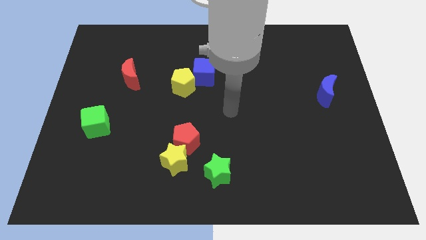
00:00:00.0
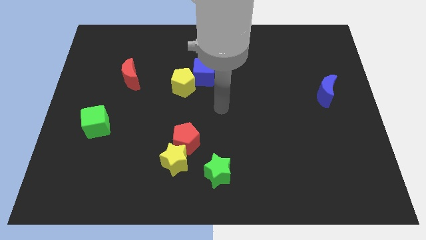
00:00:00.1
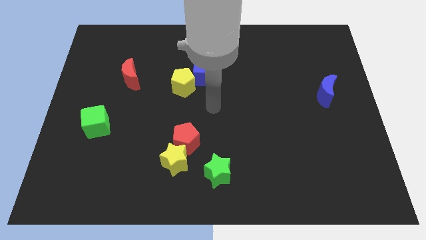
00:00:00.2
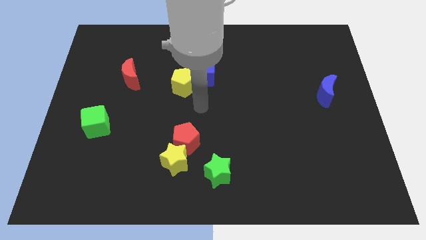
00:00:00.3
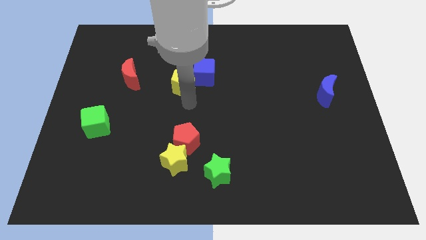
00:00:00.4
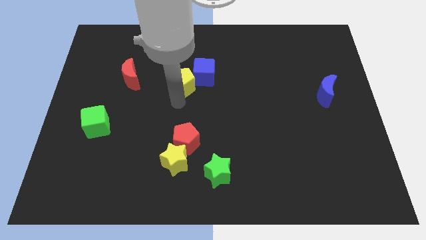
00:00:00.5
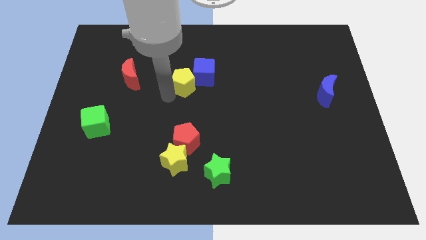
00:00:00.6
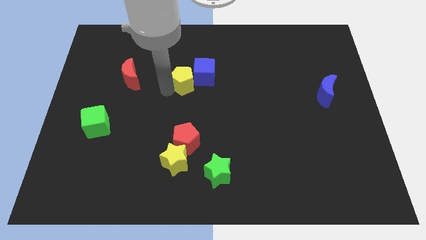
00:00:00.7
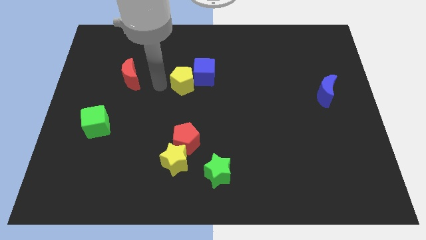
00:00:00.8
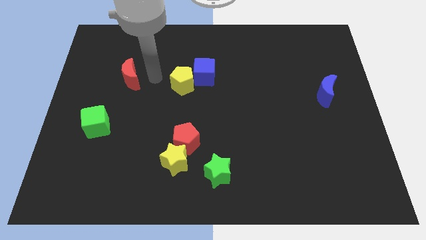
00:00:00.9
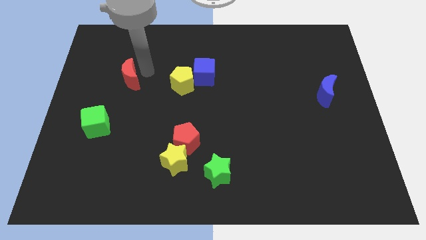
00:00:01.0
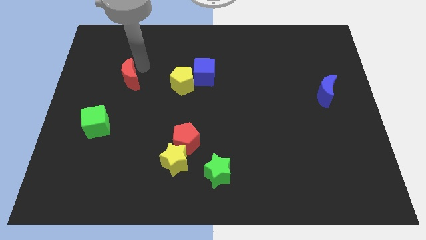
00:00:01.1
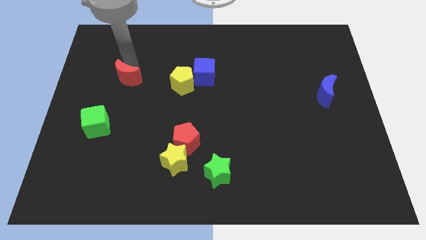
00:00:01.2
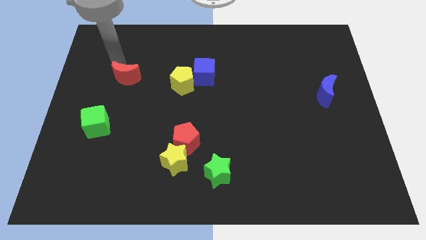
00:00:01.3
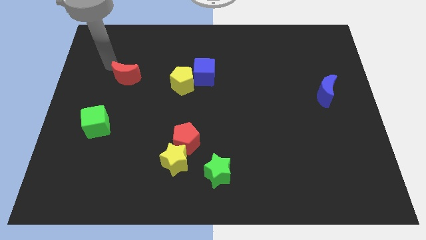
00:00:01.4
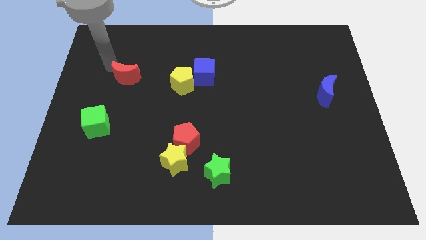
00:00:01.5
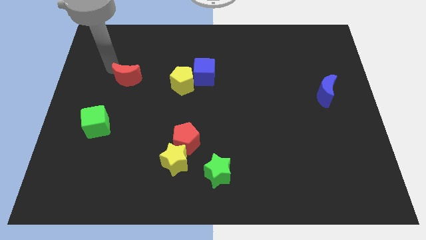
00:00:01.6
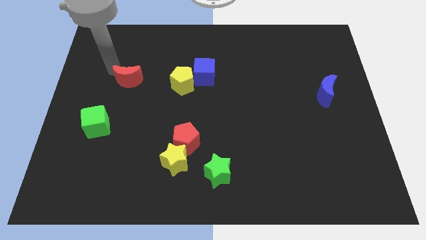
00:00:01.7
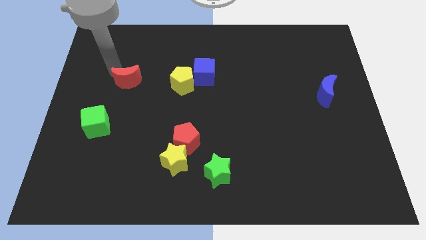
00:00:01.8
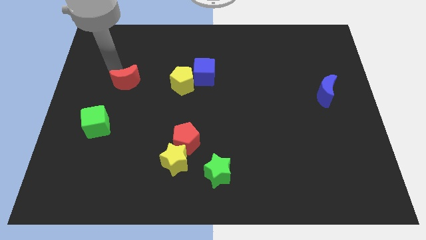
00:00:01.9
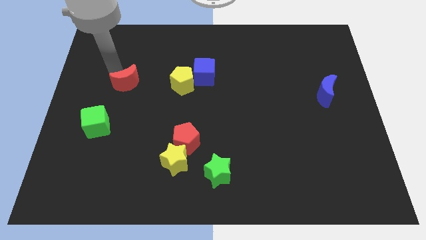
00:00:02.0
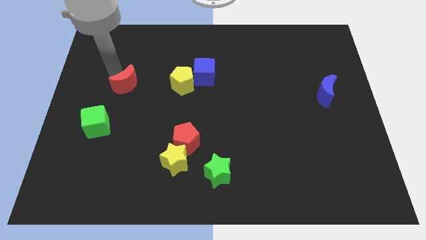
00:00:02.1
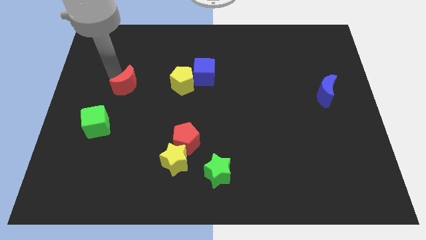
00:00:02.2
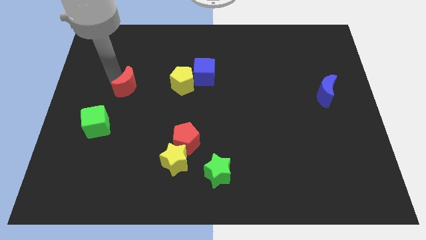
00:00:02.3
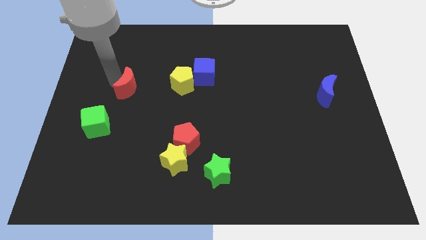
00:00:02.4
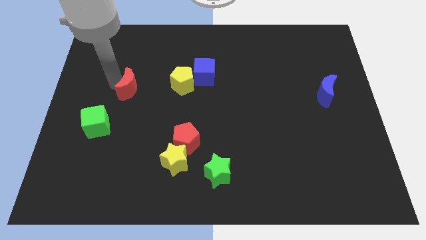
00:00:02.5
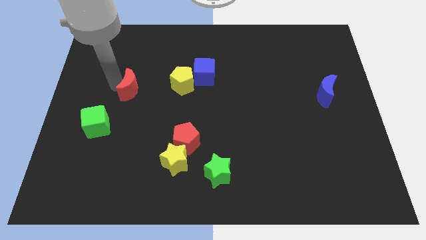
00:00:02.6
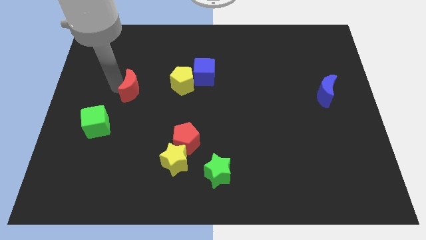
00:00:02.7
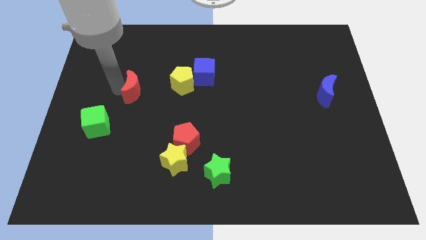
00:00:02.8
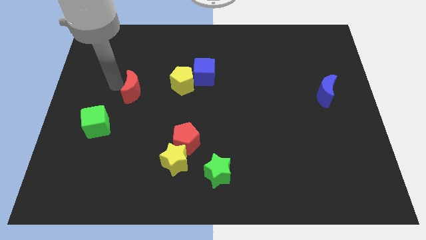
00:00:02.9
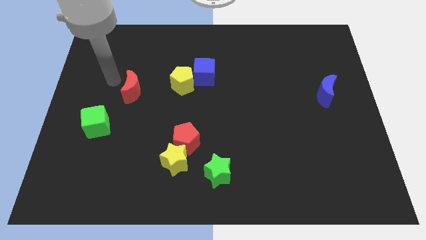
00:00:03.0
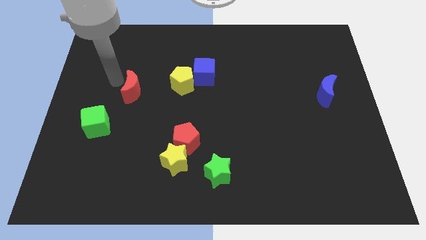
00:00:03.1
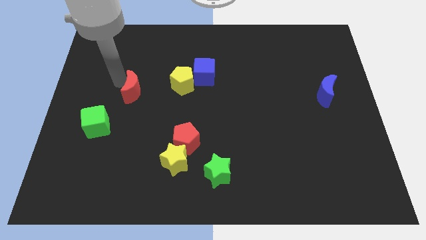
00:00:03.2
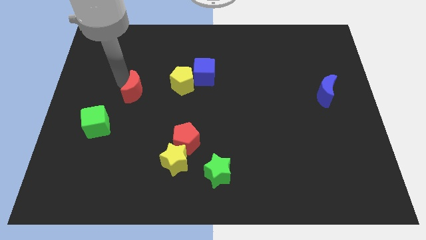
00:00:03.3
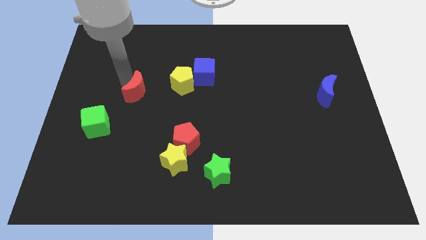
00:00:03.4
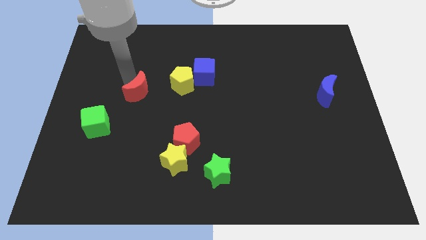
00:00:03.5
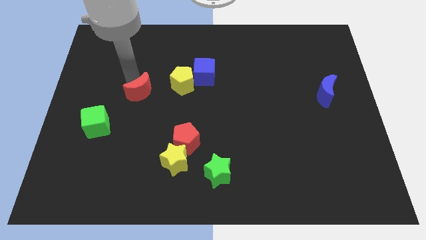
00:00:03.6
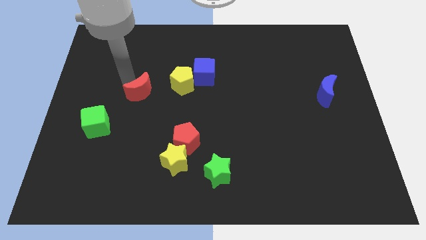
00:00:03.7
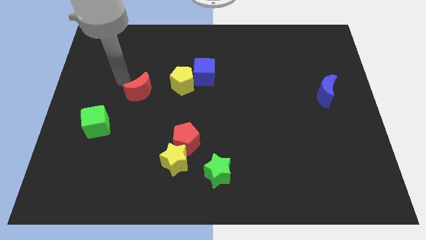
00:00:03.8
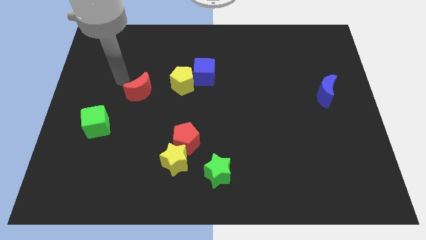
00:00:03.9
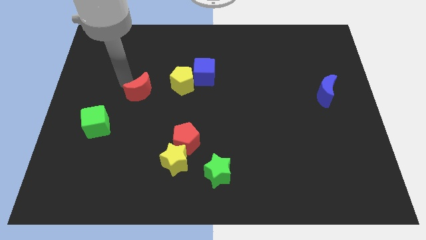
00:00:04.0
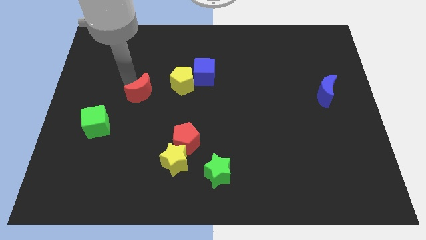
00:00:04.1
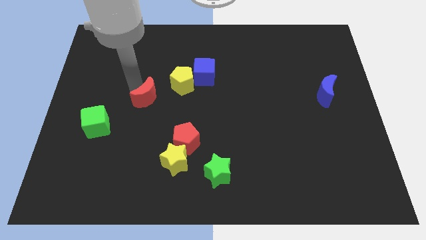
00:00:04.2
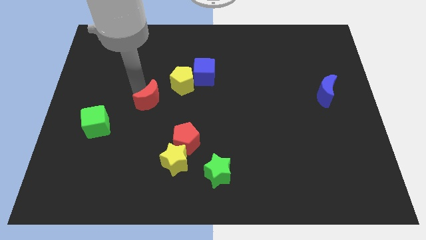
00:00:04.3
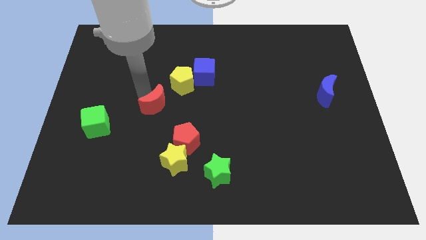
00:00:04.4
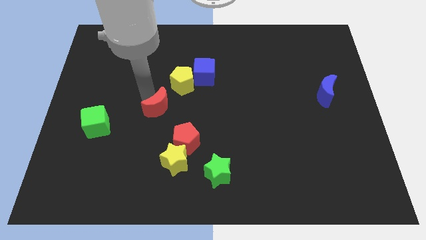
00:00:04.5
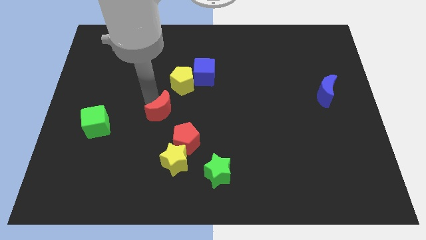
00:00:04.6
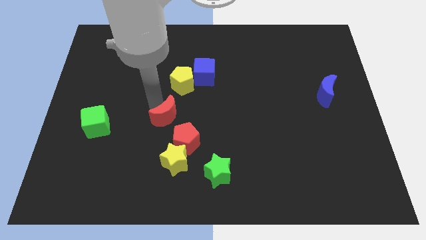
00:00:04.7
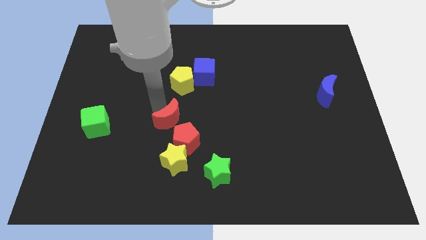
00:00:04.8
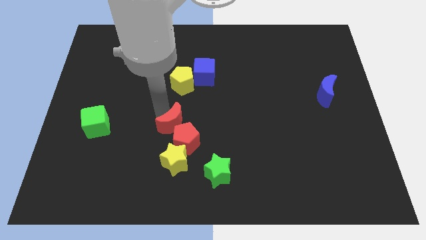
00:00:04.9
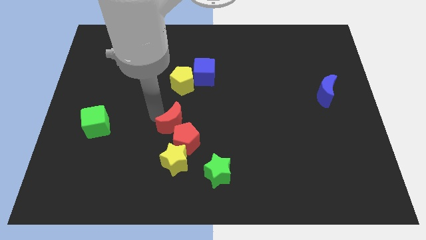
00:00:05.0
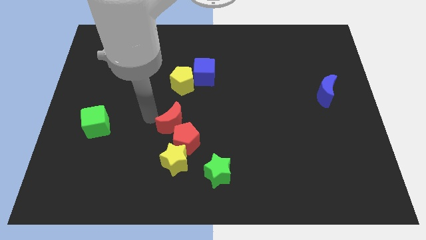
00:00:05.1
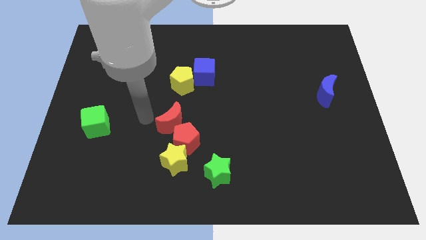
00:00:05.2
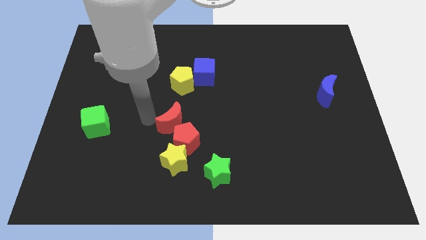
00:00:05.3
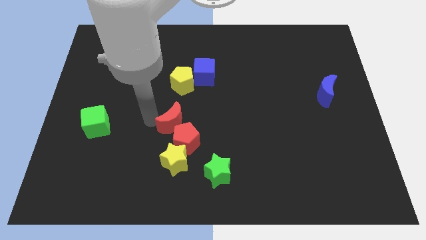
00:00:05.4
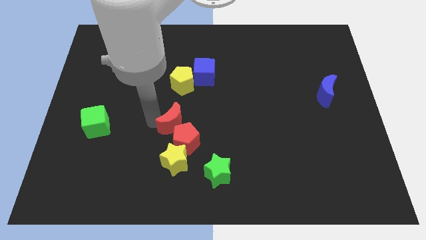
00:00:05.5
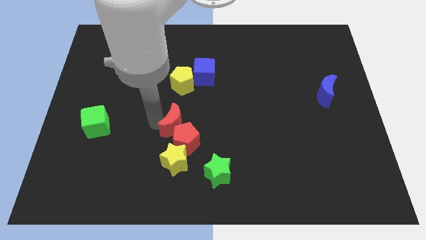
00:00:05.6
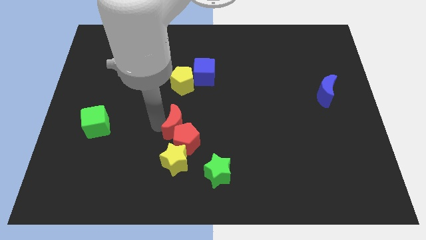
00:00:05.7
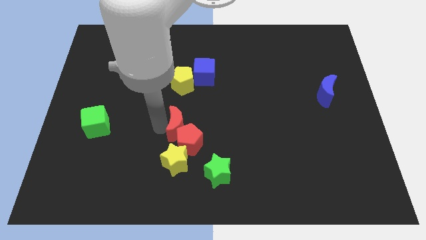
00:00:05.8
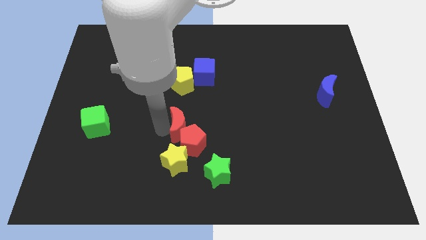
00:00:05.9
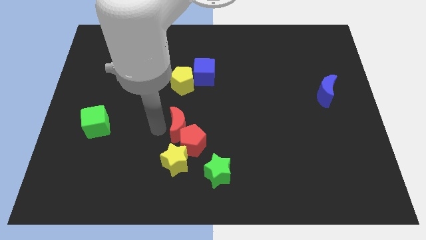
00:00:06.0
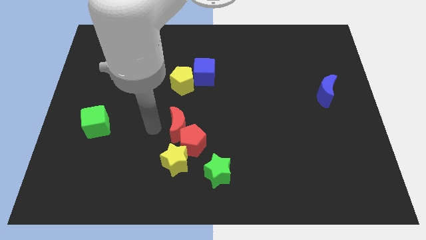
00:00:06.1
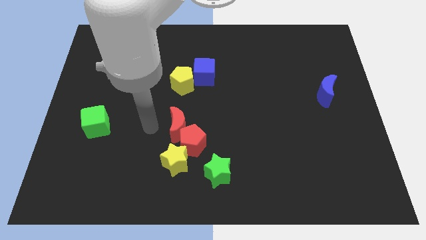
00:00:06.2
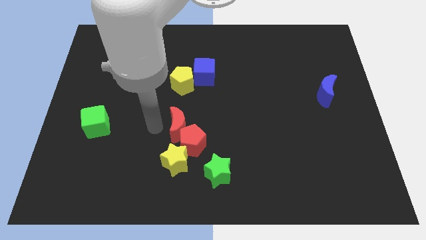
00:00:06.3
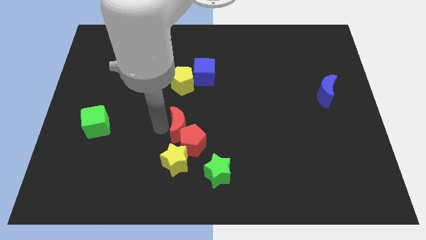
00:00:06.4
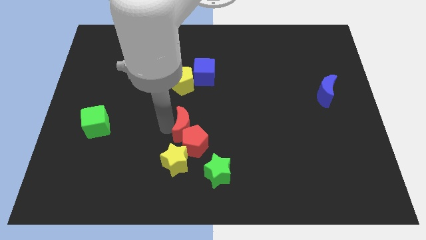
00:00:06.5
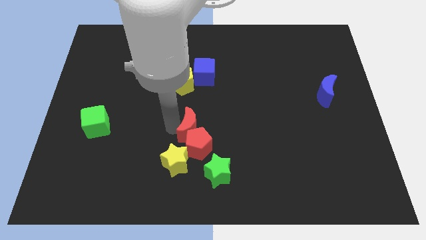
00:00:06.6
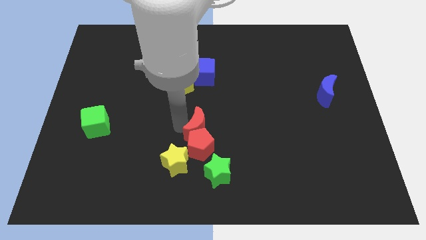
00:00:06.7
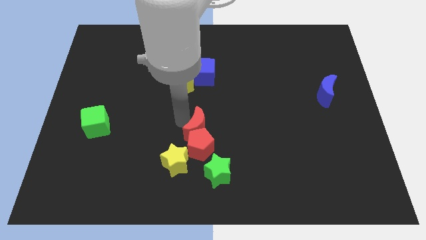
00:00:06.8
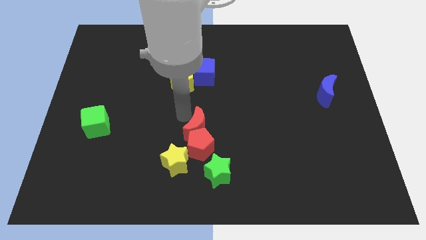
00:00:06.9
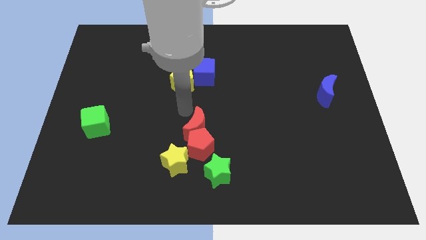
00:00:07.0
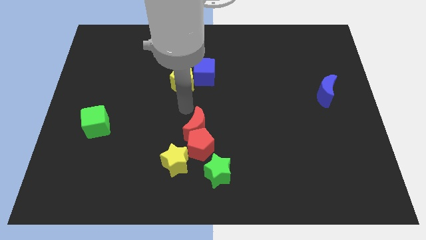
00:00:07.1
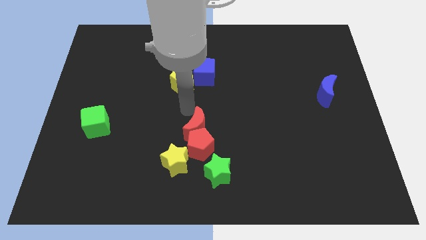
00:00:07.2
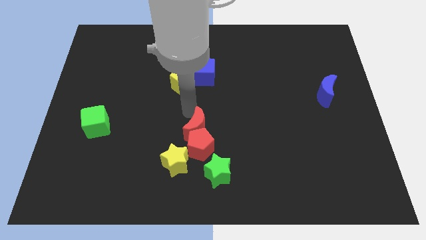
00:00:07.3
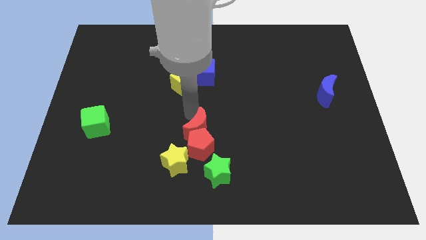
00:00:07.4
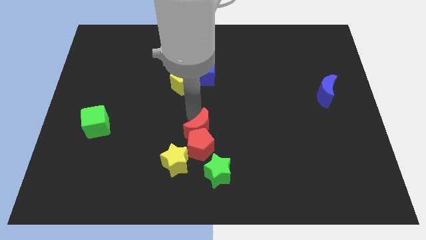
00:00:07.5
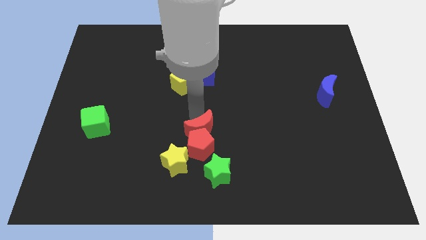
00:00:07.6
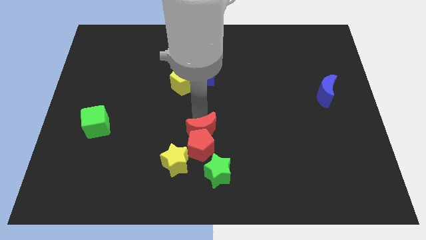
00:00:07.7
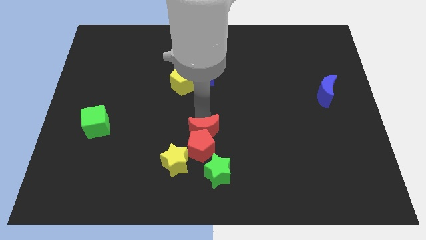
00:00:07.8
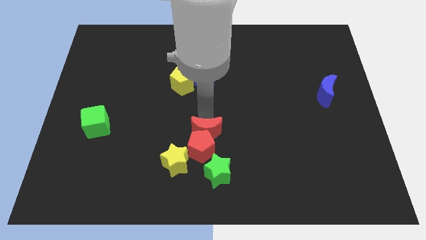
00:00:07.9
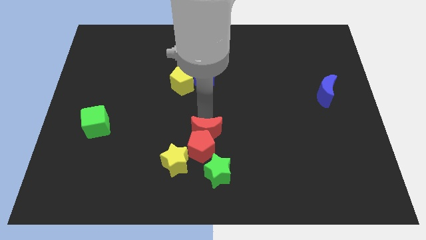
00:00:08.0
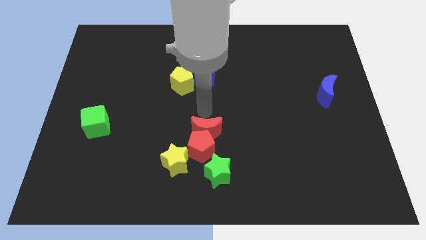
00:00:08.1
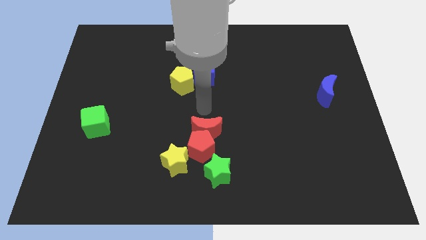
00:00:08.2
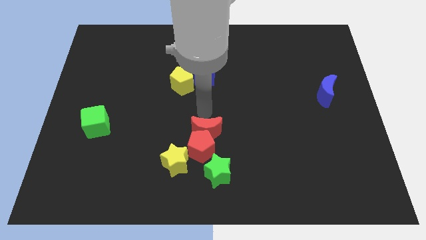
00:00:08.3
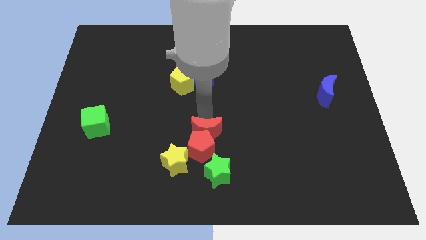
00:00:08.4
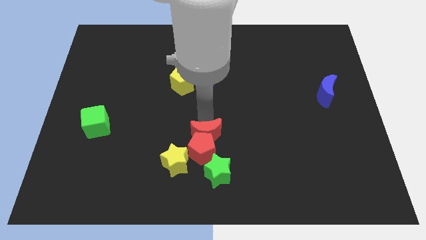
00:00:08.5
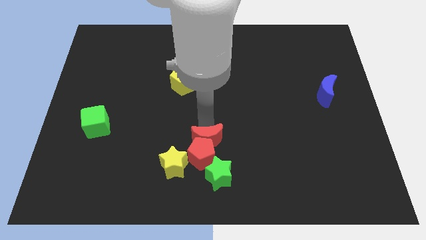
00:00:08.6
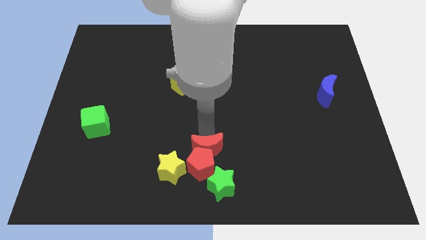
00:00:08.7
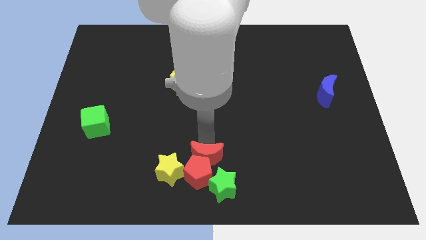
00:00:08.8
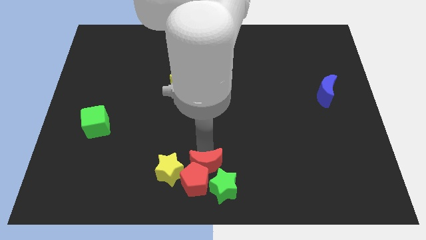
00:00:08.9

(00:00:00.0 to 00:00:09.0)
slide the red moon close to the green star
